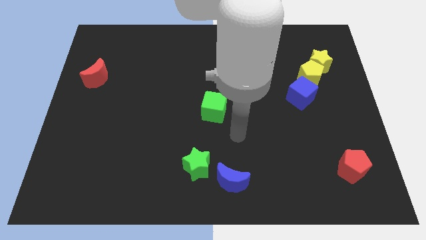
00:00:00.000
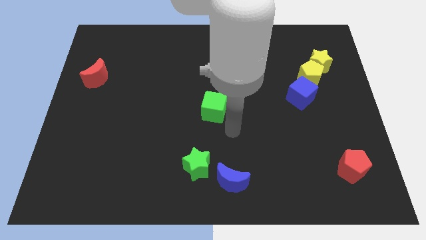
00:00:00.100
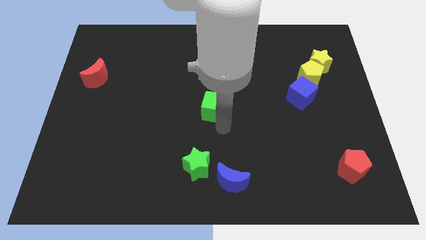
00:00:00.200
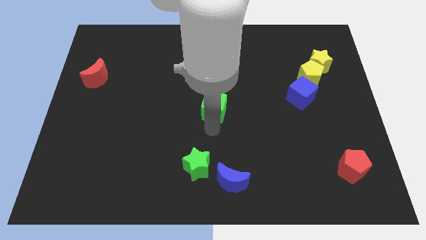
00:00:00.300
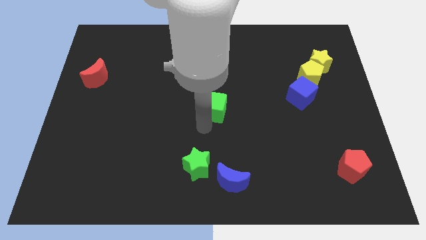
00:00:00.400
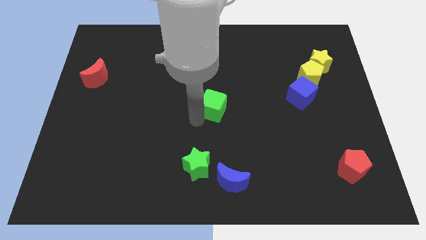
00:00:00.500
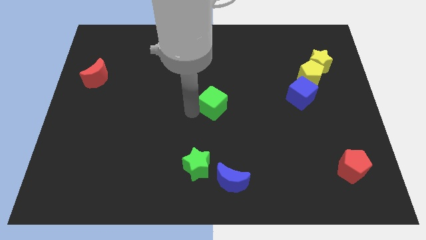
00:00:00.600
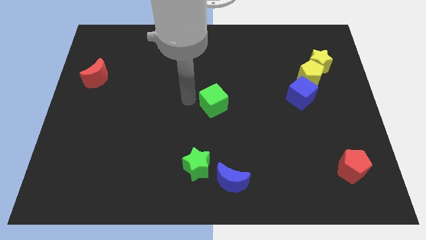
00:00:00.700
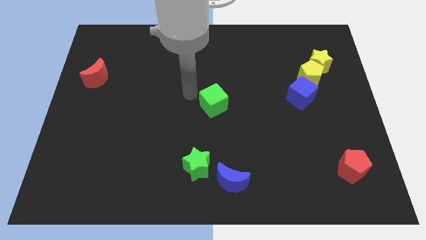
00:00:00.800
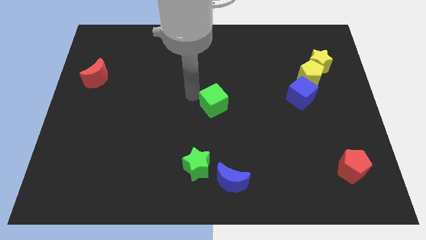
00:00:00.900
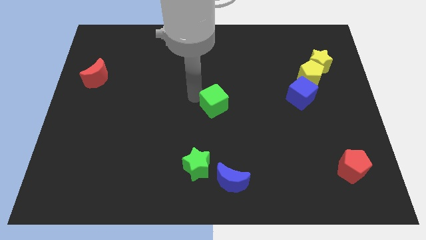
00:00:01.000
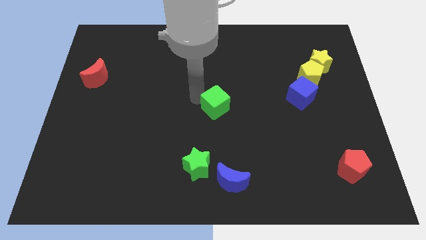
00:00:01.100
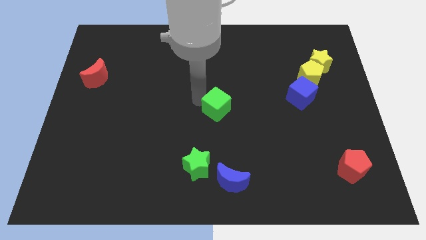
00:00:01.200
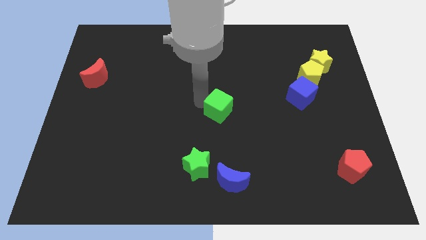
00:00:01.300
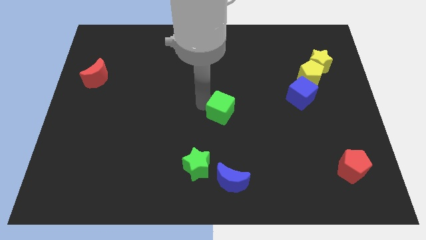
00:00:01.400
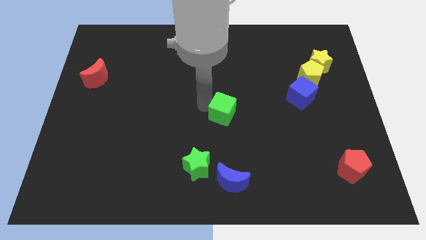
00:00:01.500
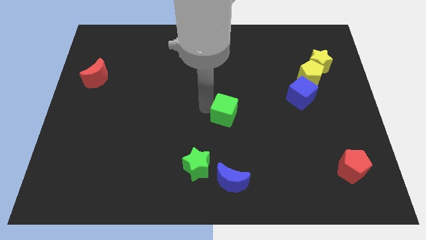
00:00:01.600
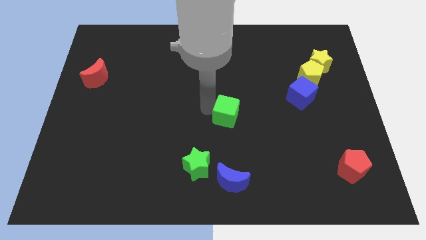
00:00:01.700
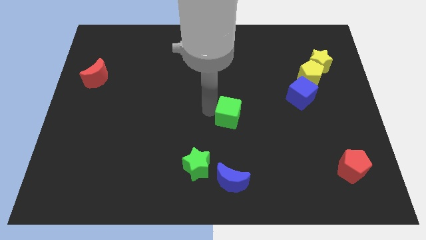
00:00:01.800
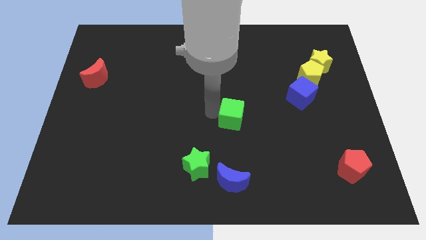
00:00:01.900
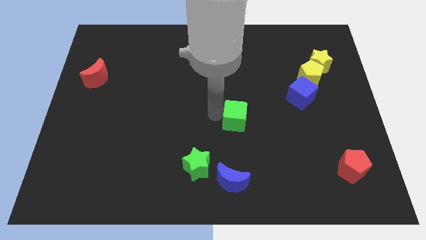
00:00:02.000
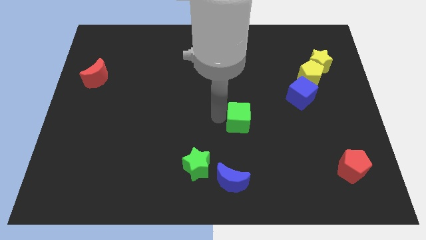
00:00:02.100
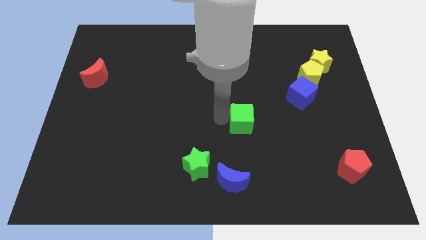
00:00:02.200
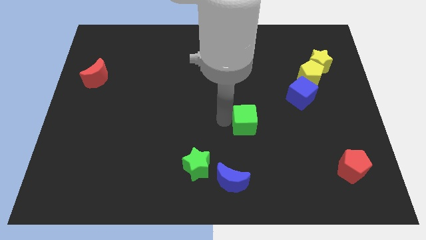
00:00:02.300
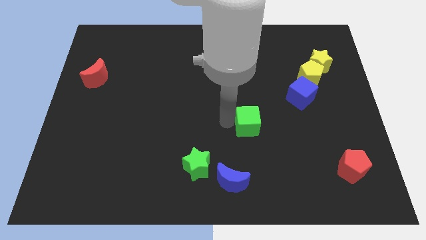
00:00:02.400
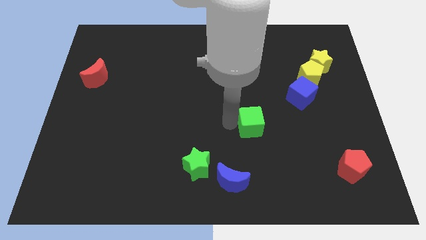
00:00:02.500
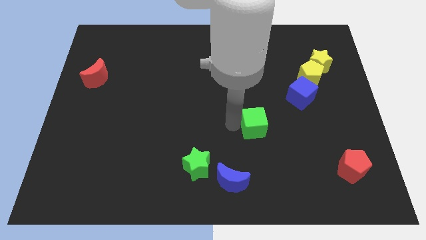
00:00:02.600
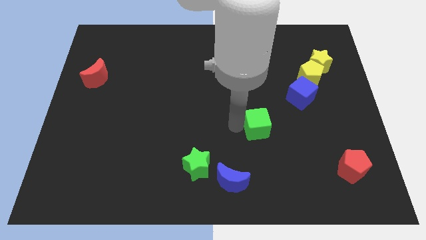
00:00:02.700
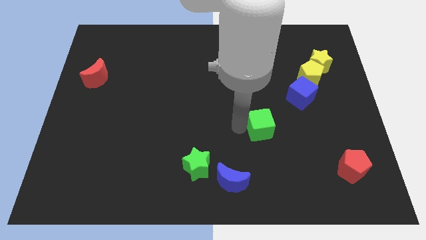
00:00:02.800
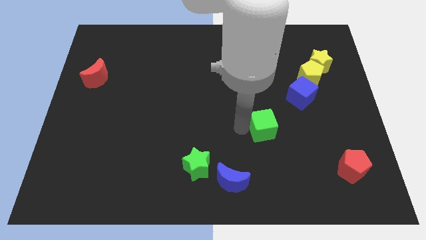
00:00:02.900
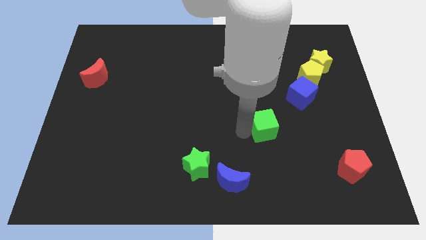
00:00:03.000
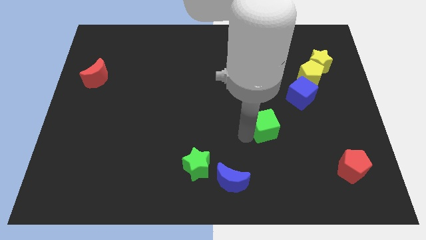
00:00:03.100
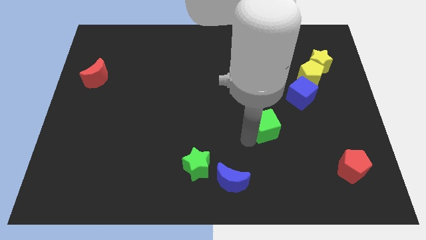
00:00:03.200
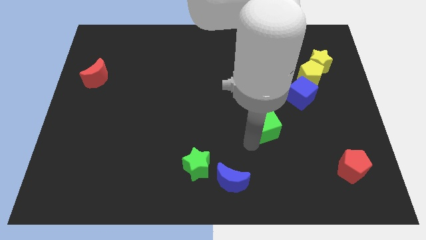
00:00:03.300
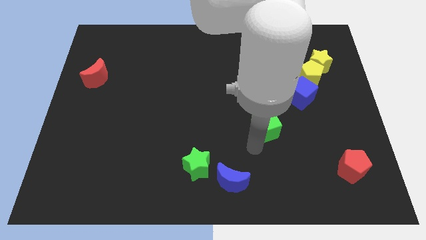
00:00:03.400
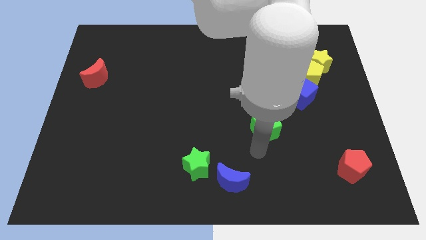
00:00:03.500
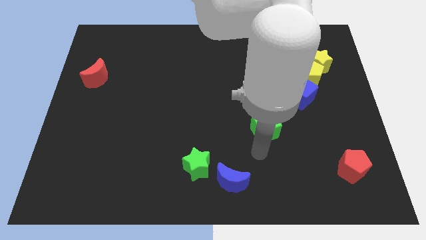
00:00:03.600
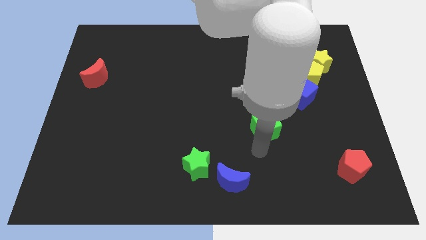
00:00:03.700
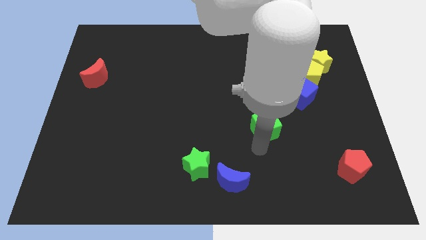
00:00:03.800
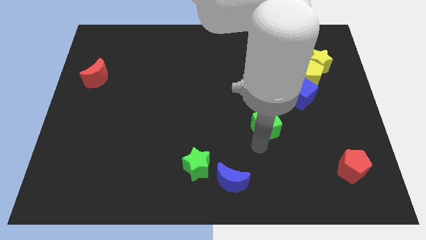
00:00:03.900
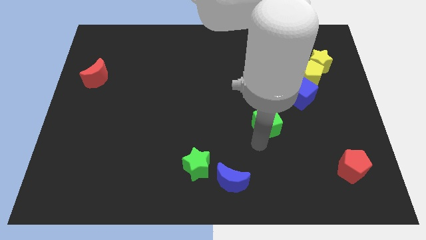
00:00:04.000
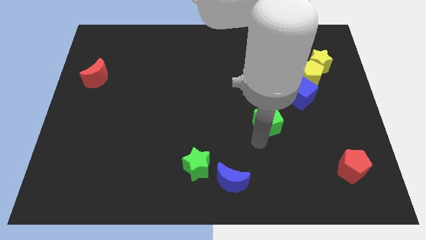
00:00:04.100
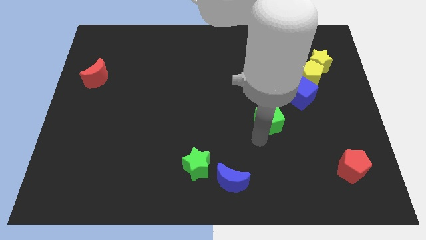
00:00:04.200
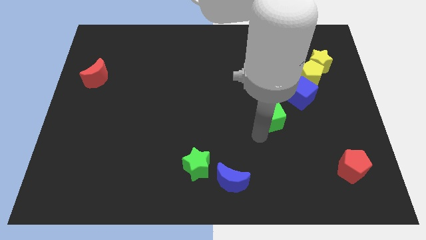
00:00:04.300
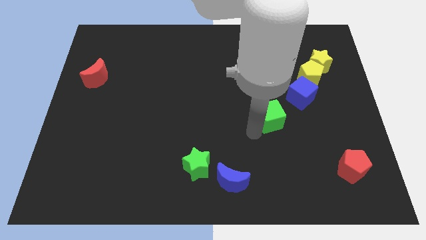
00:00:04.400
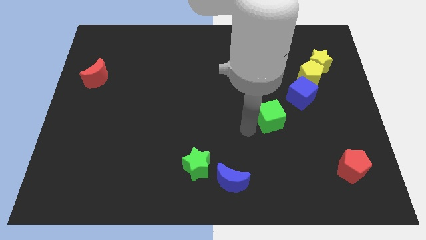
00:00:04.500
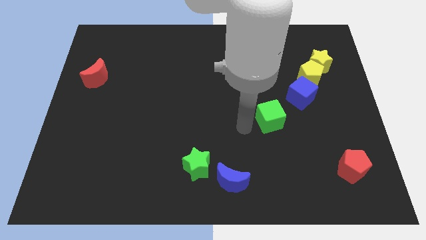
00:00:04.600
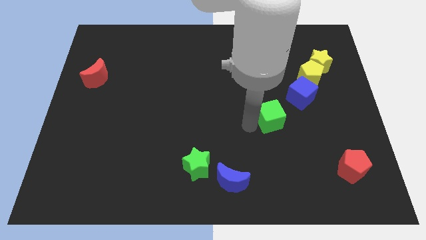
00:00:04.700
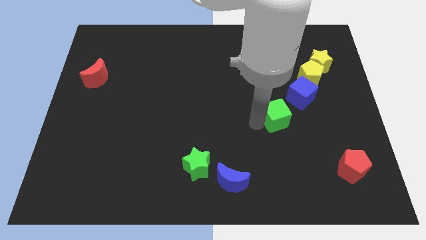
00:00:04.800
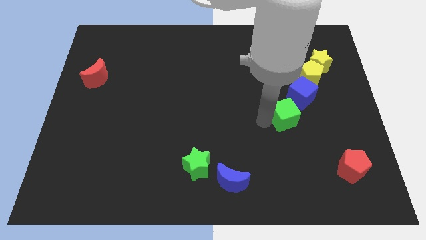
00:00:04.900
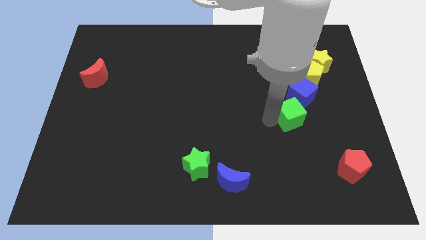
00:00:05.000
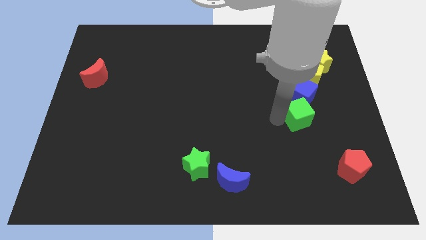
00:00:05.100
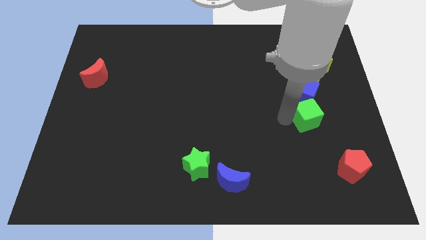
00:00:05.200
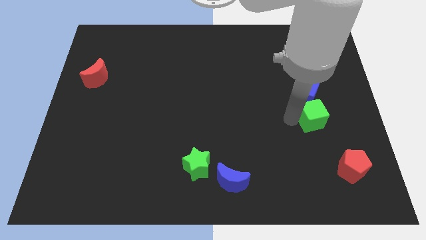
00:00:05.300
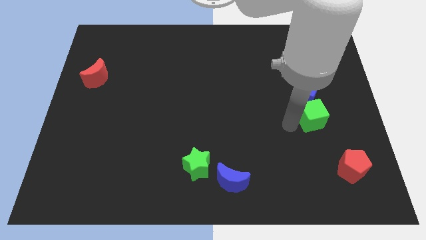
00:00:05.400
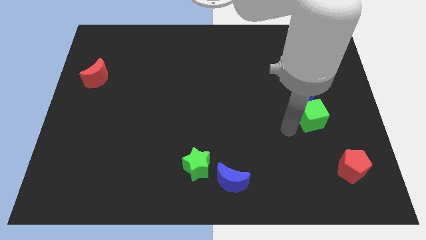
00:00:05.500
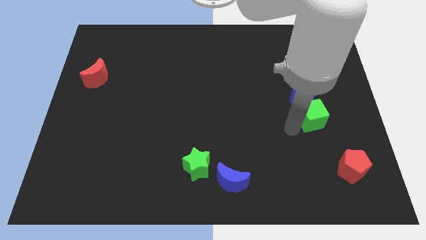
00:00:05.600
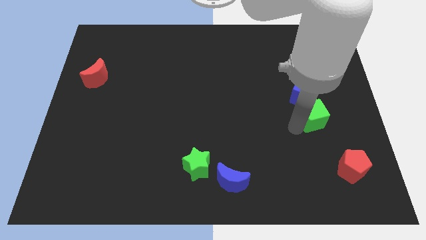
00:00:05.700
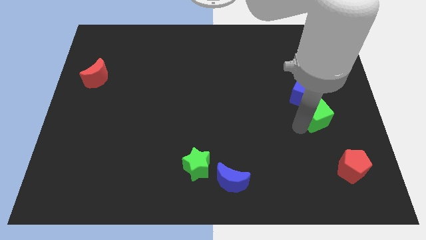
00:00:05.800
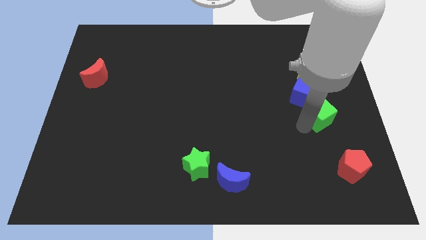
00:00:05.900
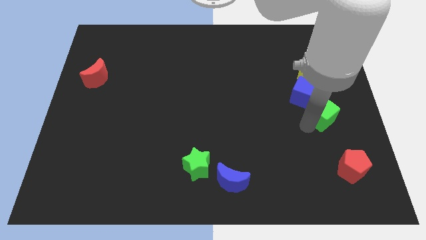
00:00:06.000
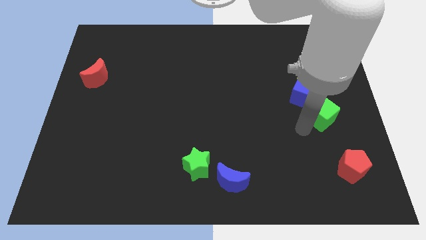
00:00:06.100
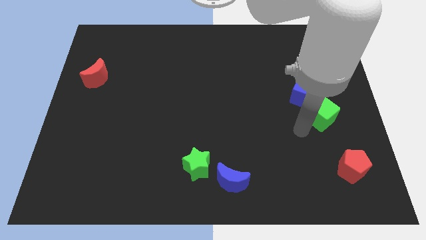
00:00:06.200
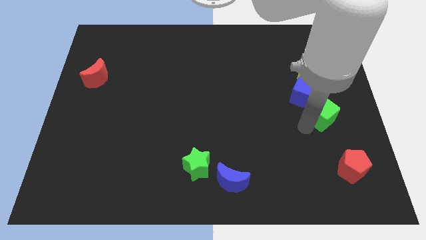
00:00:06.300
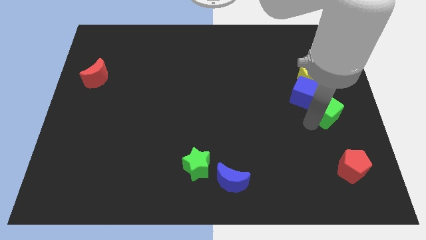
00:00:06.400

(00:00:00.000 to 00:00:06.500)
slide the green cube to the right side
